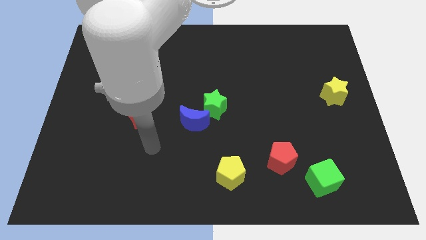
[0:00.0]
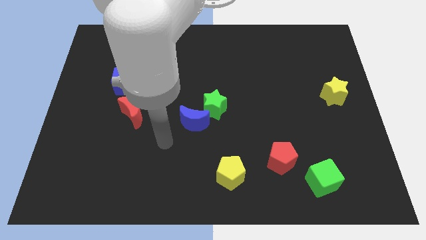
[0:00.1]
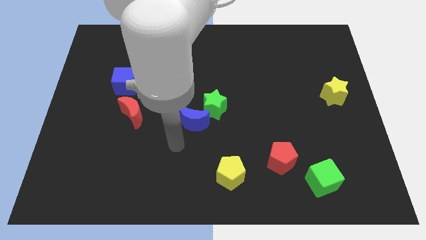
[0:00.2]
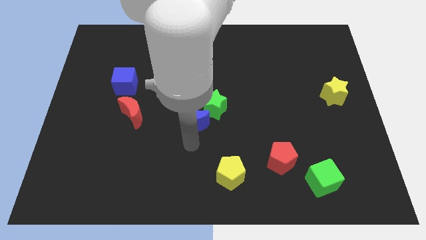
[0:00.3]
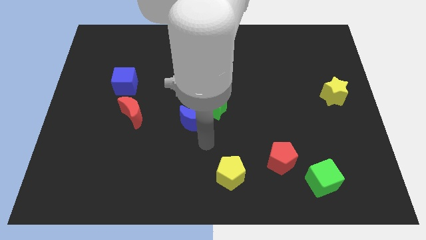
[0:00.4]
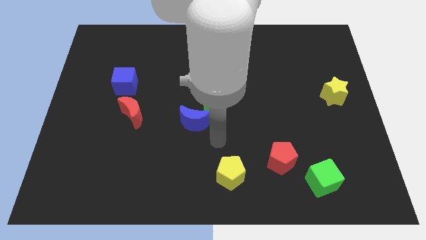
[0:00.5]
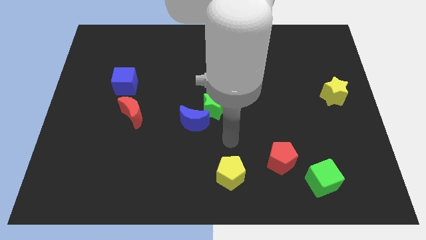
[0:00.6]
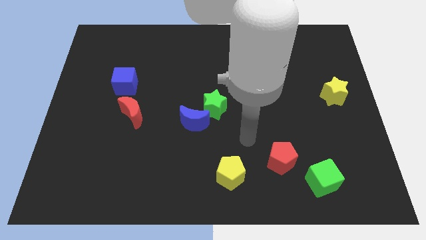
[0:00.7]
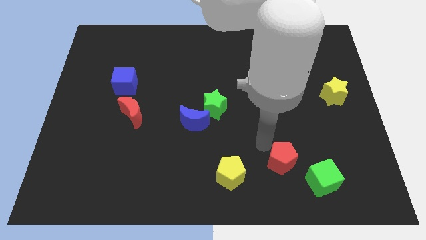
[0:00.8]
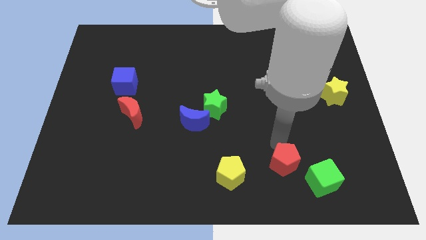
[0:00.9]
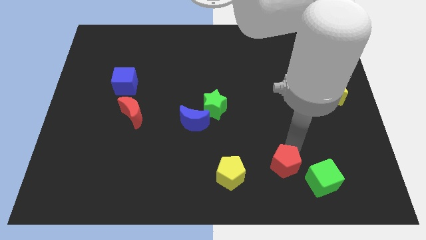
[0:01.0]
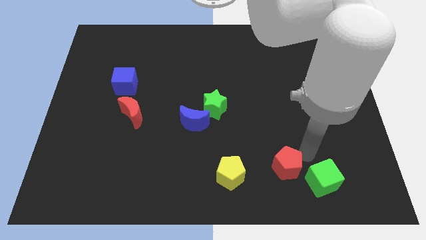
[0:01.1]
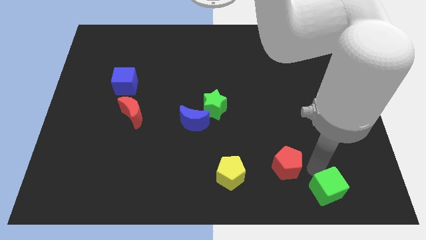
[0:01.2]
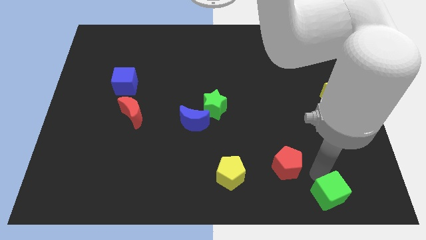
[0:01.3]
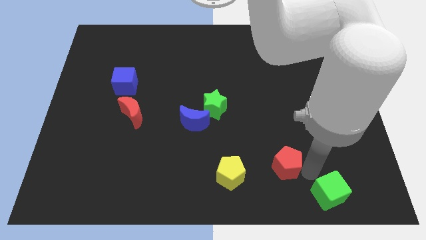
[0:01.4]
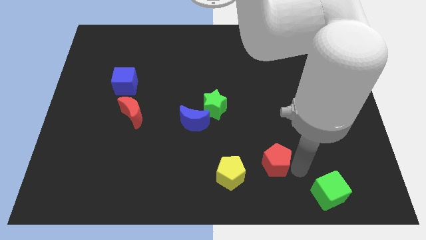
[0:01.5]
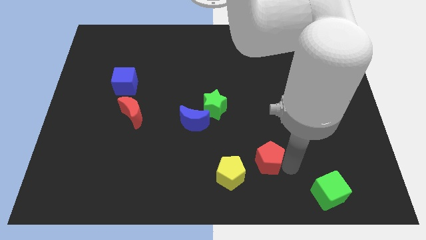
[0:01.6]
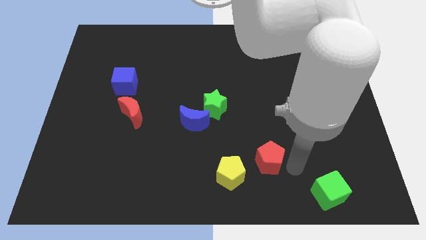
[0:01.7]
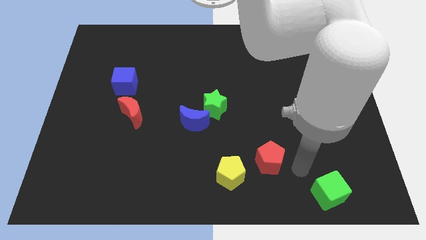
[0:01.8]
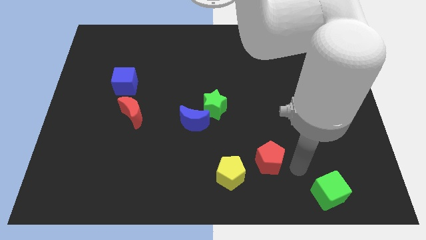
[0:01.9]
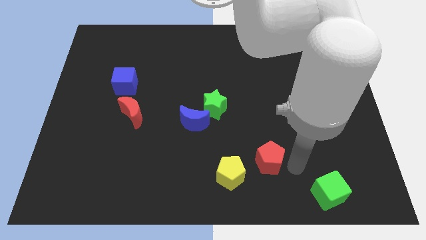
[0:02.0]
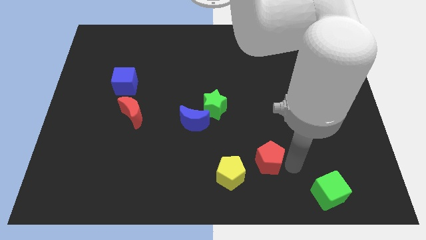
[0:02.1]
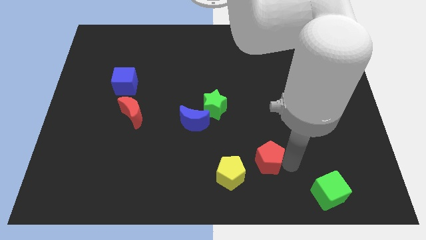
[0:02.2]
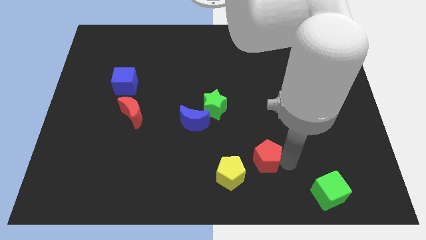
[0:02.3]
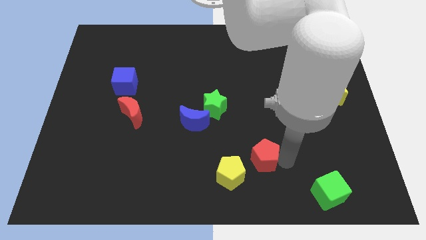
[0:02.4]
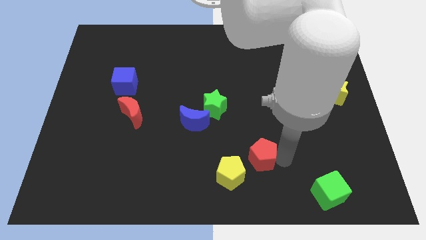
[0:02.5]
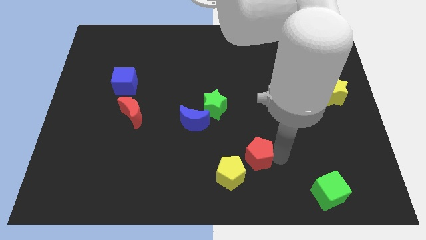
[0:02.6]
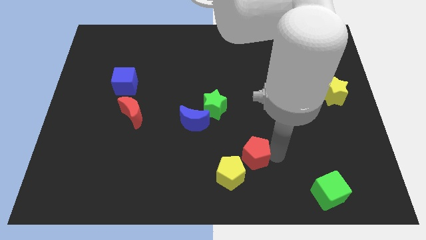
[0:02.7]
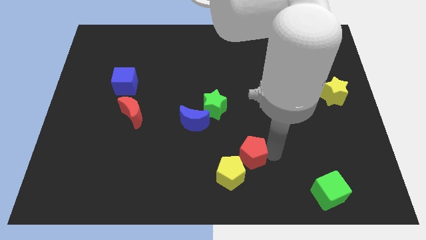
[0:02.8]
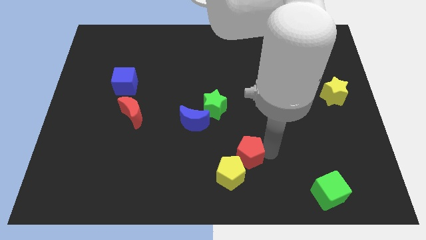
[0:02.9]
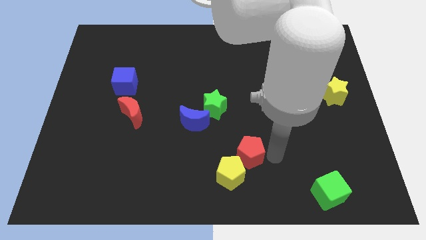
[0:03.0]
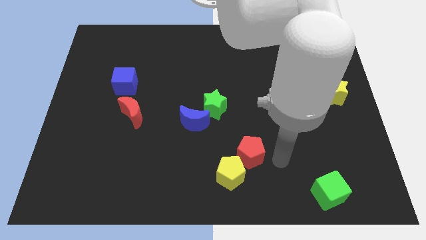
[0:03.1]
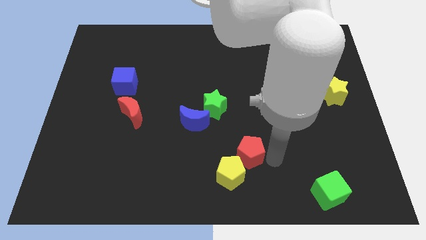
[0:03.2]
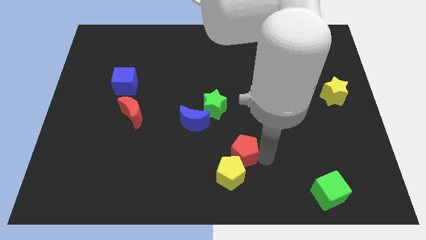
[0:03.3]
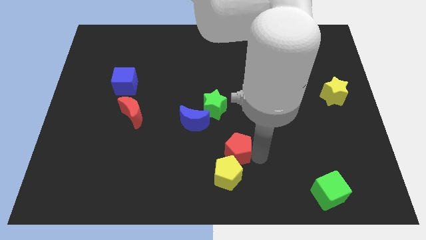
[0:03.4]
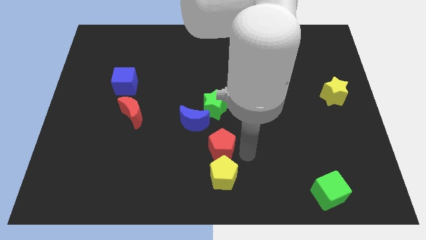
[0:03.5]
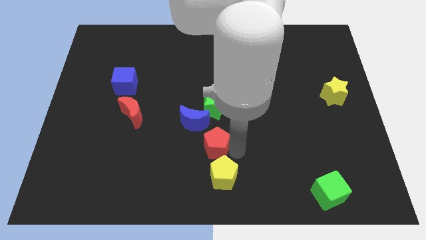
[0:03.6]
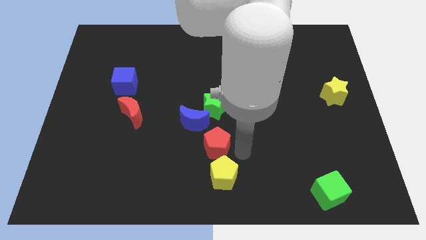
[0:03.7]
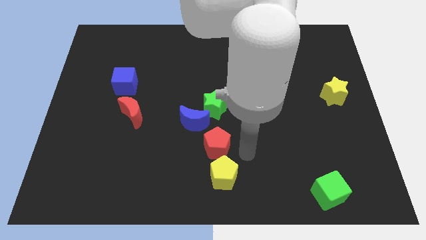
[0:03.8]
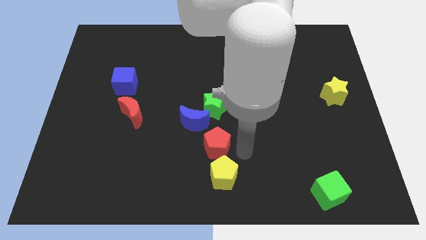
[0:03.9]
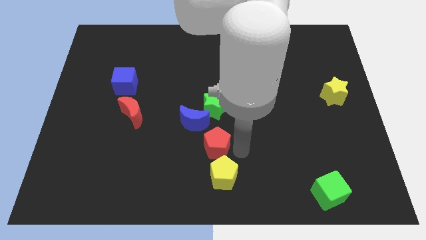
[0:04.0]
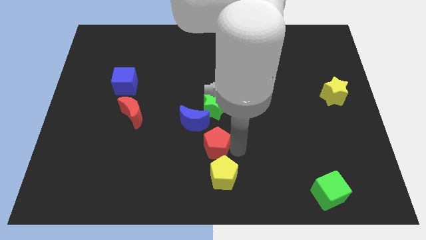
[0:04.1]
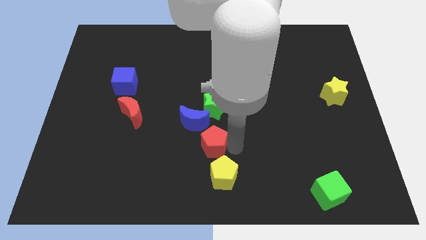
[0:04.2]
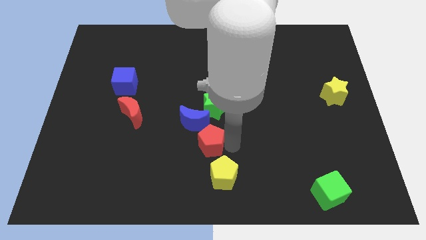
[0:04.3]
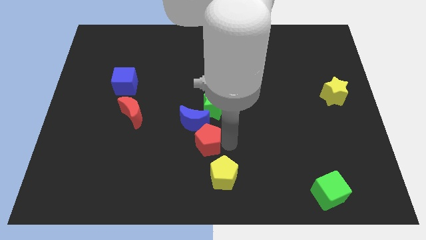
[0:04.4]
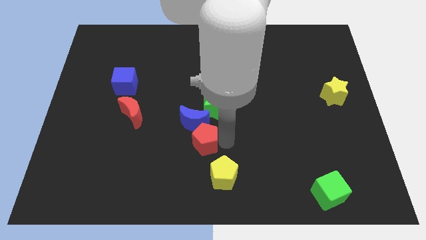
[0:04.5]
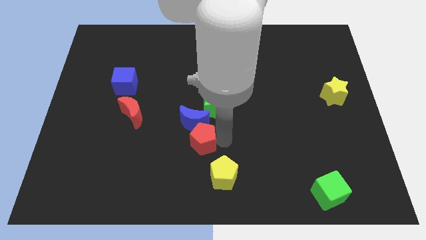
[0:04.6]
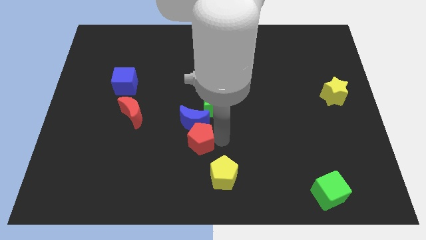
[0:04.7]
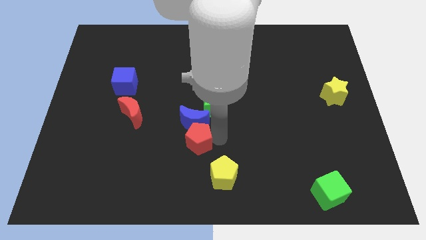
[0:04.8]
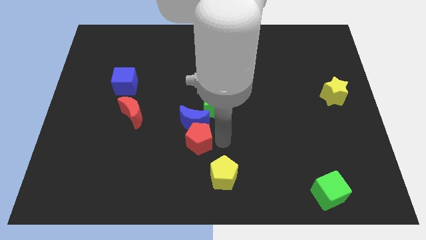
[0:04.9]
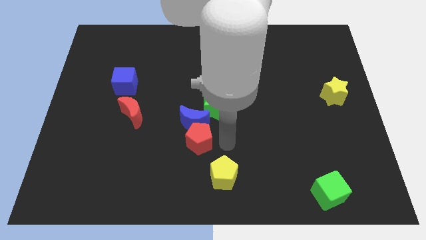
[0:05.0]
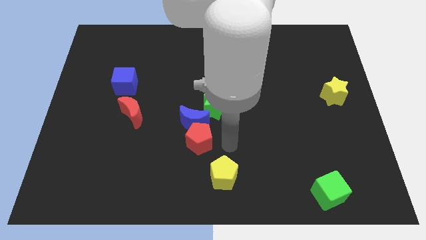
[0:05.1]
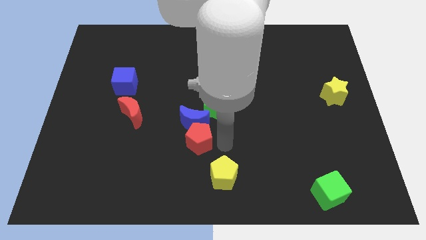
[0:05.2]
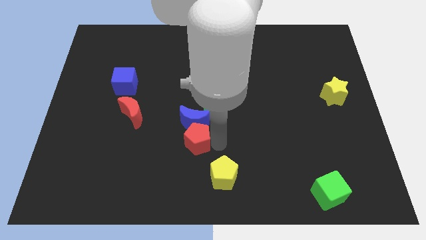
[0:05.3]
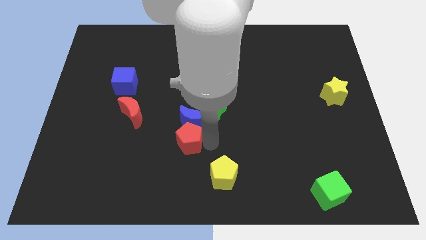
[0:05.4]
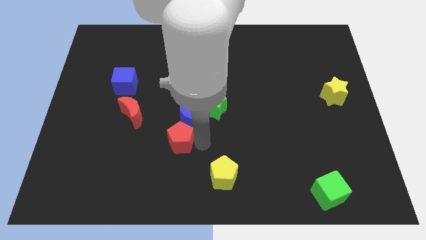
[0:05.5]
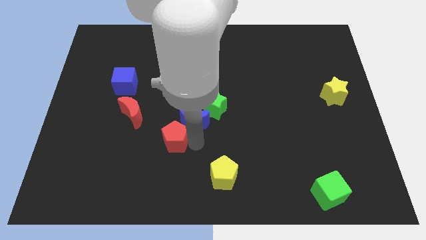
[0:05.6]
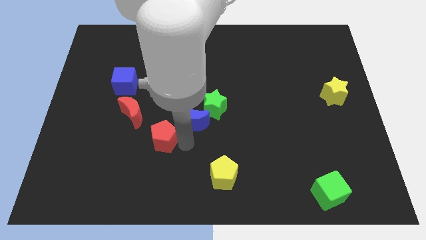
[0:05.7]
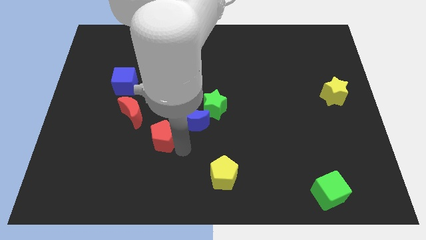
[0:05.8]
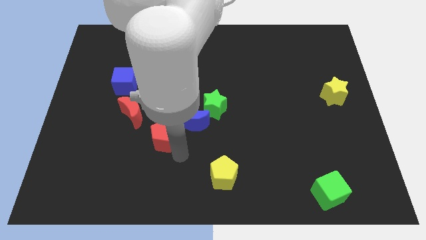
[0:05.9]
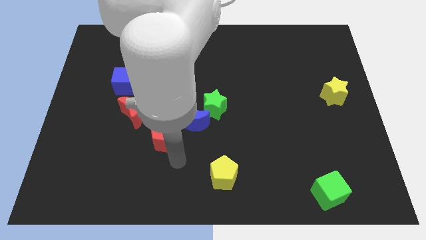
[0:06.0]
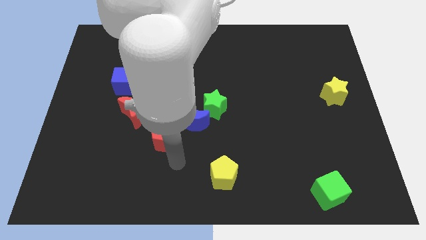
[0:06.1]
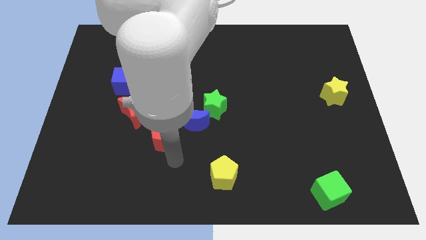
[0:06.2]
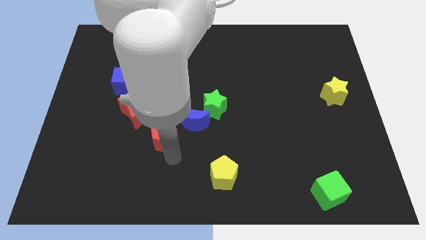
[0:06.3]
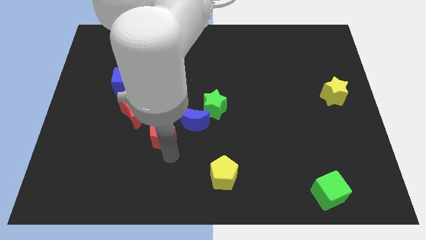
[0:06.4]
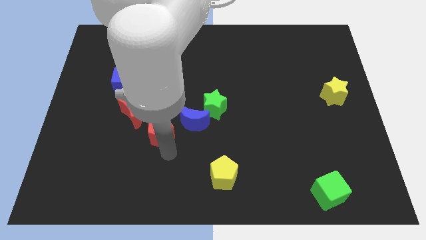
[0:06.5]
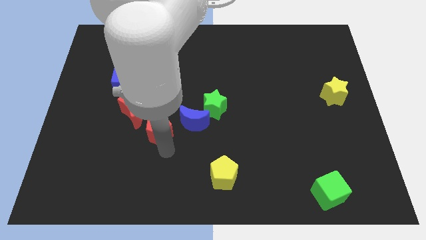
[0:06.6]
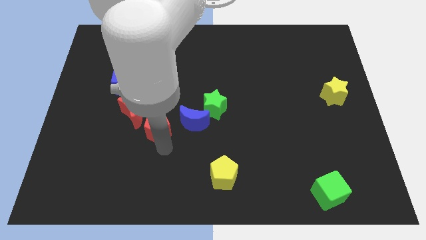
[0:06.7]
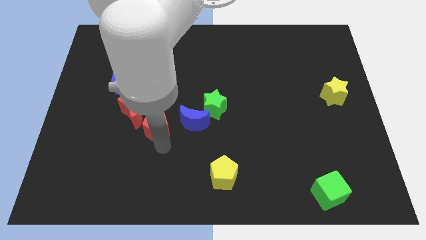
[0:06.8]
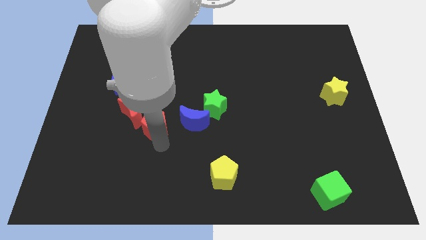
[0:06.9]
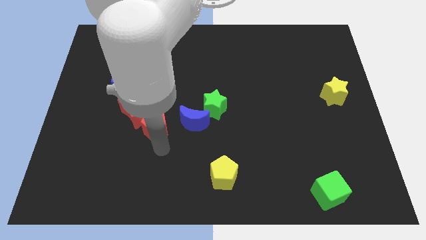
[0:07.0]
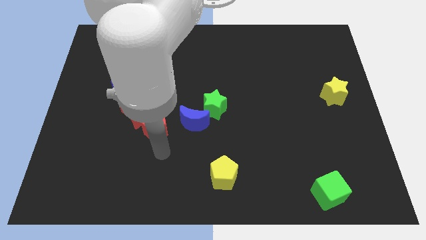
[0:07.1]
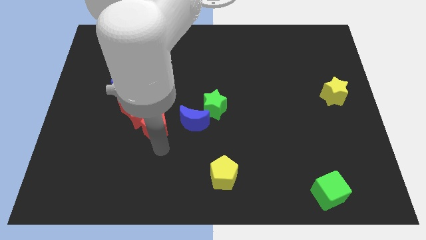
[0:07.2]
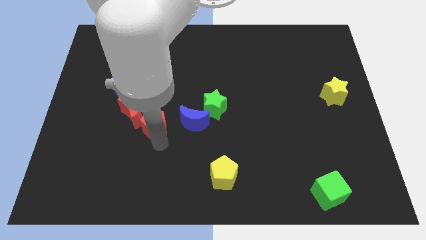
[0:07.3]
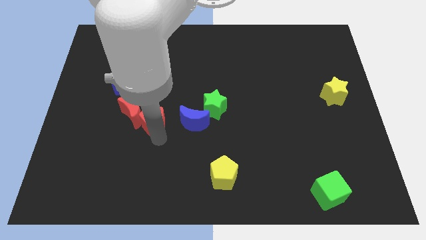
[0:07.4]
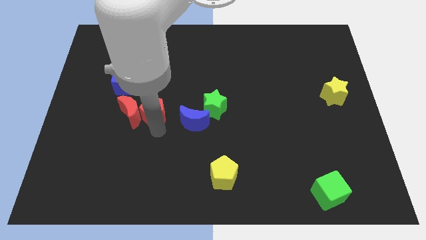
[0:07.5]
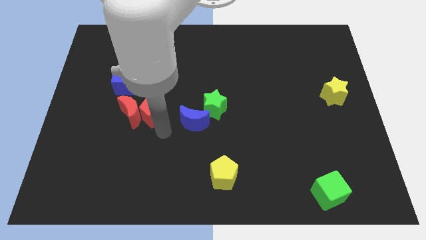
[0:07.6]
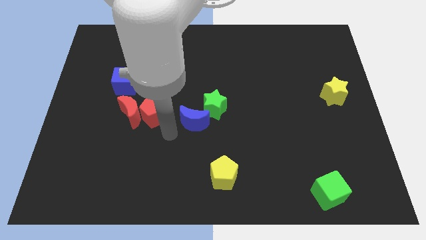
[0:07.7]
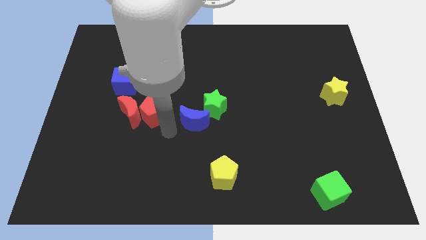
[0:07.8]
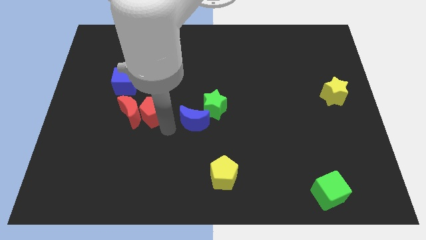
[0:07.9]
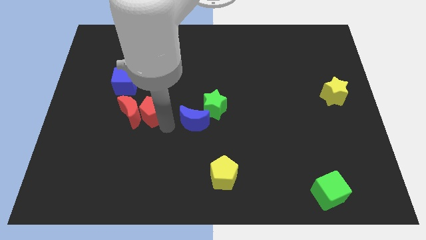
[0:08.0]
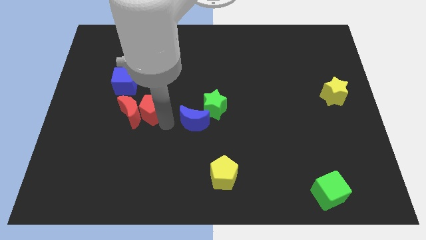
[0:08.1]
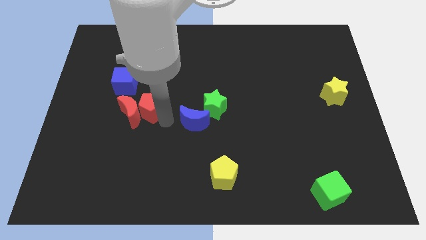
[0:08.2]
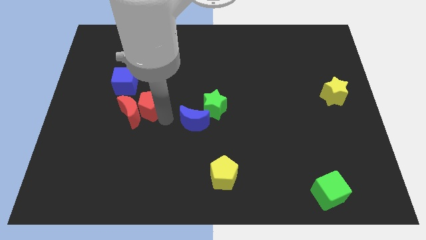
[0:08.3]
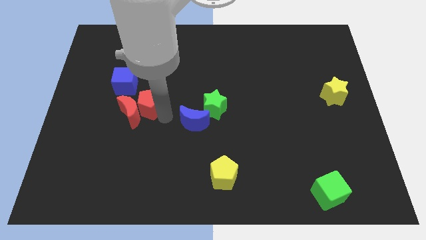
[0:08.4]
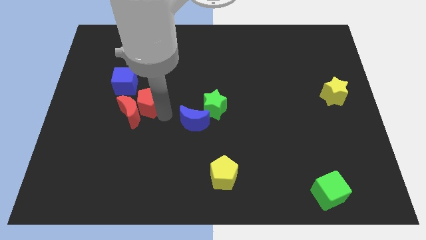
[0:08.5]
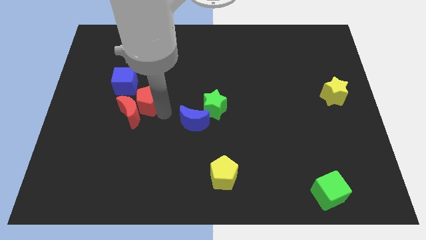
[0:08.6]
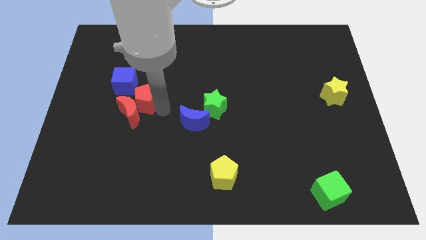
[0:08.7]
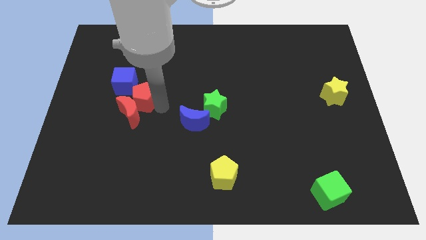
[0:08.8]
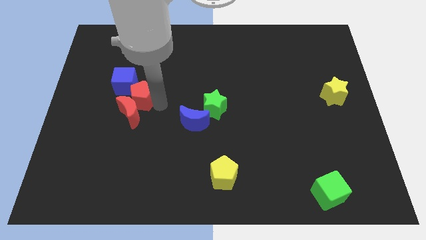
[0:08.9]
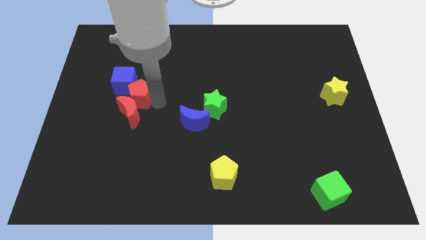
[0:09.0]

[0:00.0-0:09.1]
push the red pentagon next to the blue cube
